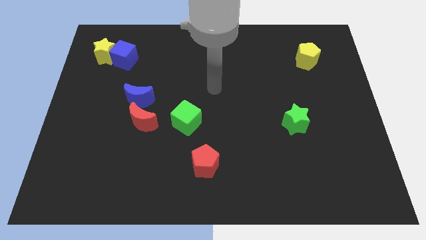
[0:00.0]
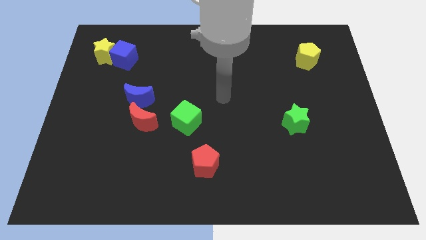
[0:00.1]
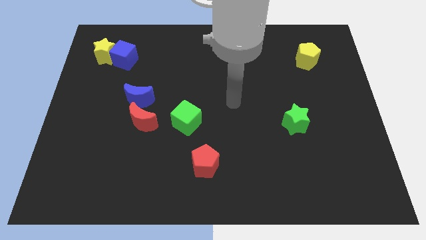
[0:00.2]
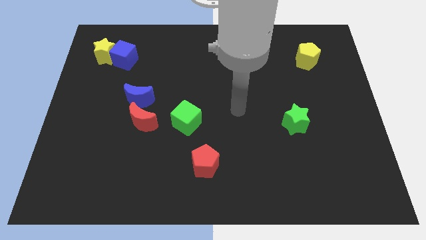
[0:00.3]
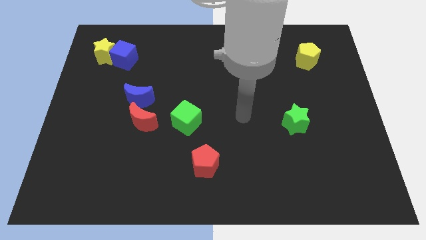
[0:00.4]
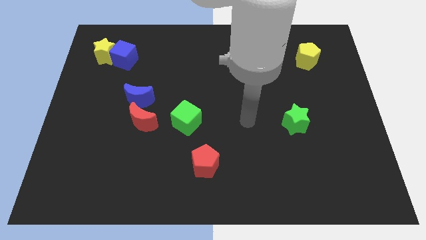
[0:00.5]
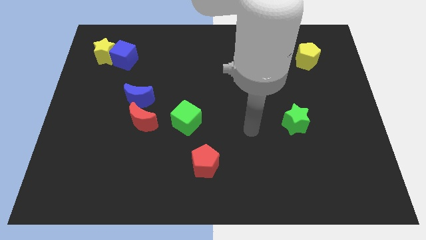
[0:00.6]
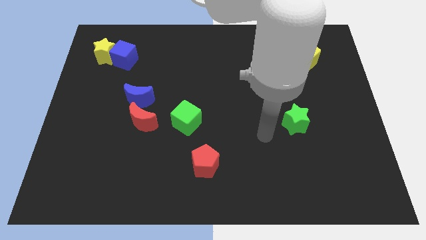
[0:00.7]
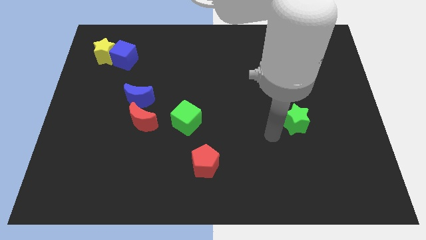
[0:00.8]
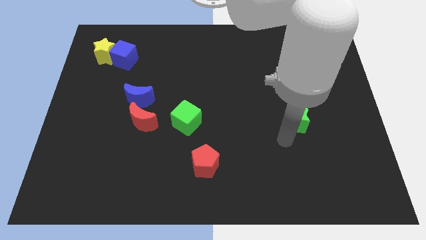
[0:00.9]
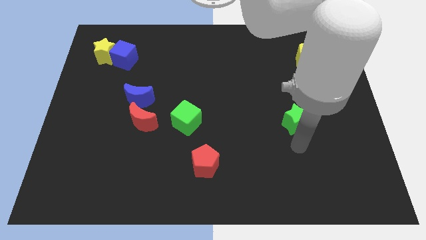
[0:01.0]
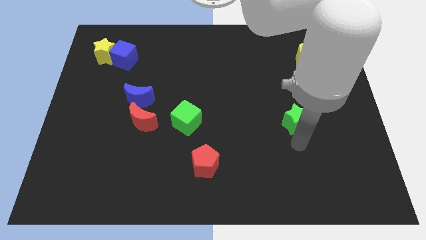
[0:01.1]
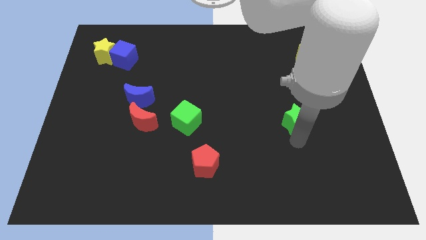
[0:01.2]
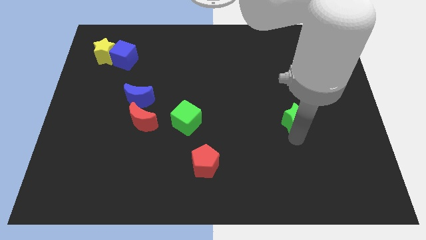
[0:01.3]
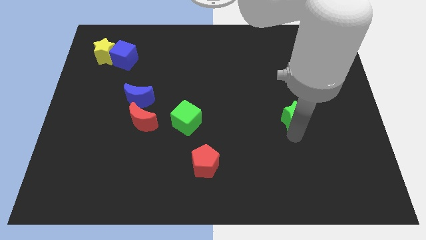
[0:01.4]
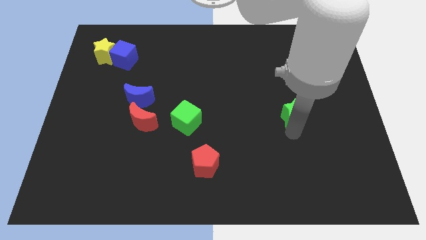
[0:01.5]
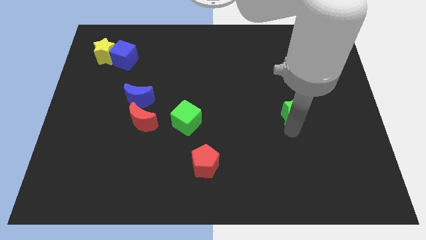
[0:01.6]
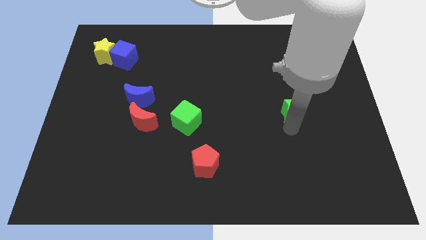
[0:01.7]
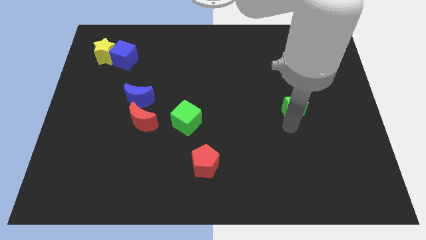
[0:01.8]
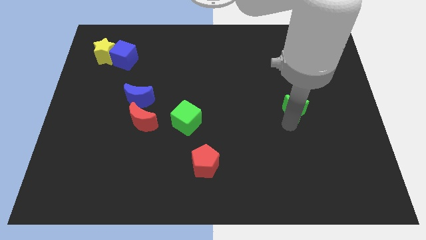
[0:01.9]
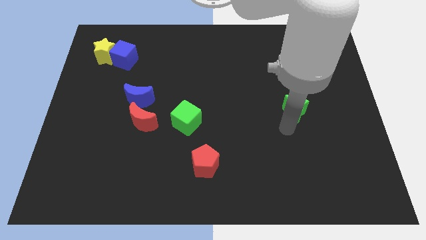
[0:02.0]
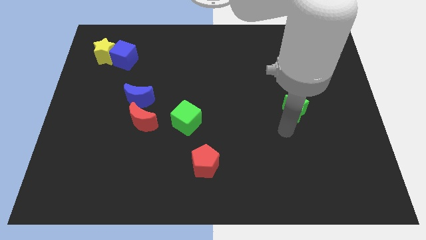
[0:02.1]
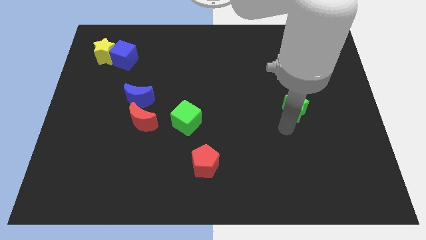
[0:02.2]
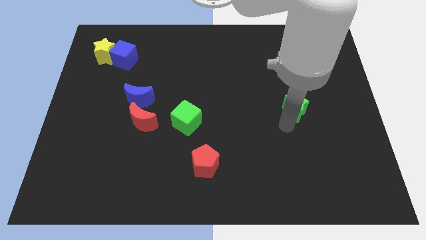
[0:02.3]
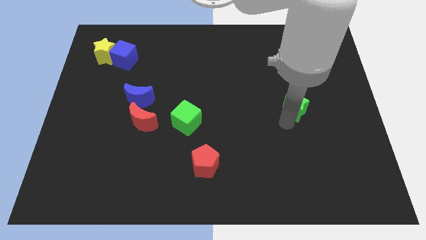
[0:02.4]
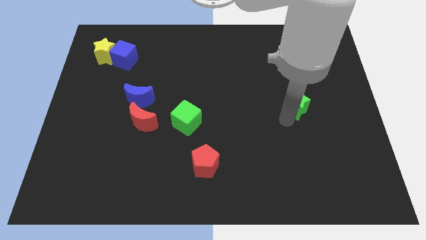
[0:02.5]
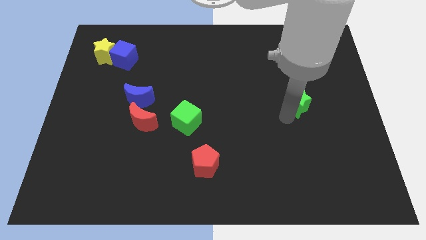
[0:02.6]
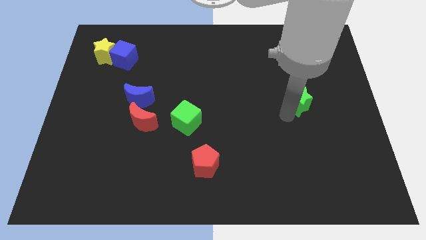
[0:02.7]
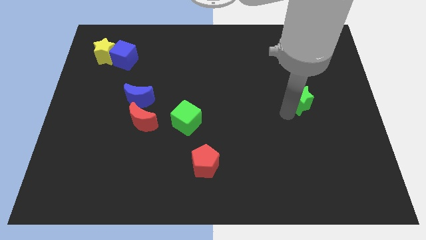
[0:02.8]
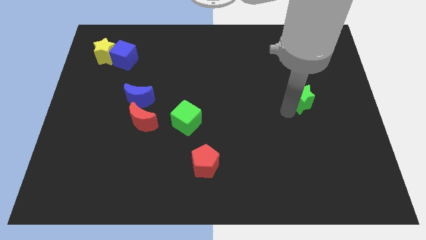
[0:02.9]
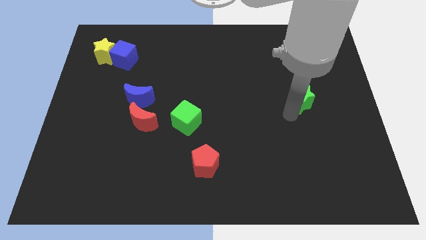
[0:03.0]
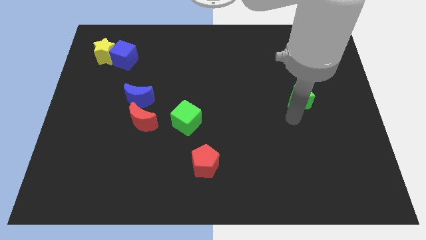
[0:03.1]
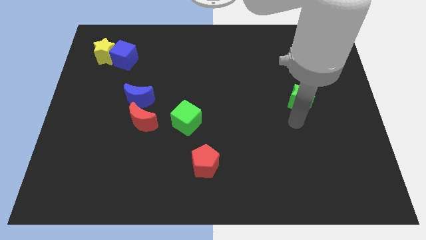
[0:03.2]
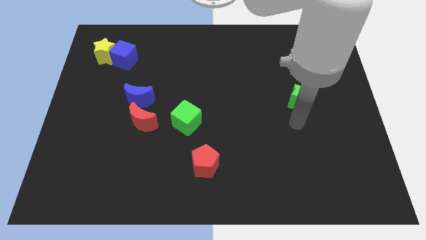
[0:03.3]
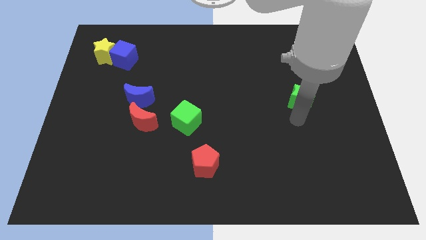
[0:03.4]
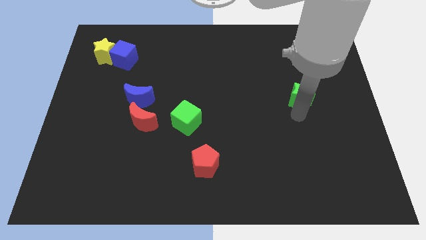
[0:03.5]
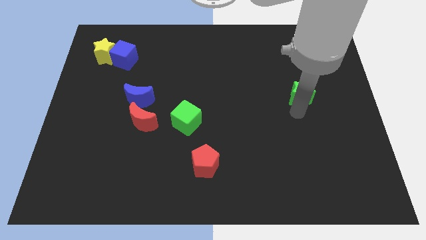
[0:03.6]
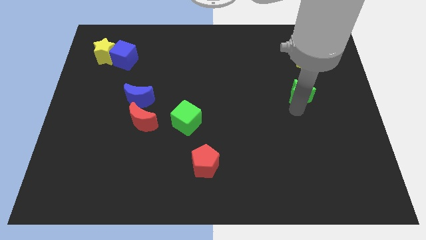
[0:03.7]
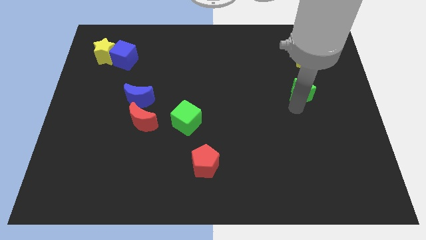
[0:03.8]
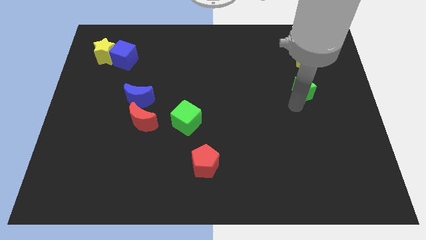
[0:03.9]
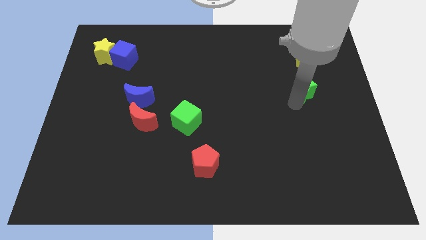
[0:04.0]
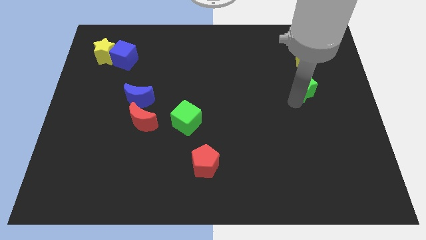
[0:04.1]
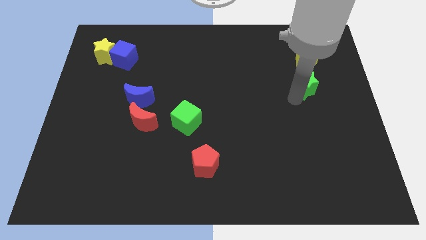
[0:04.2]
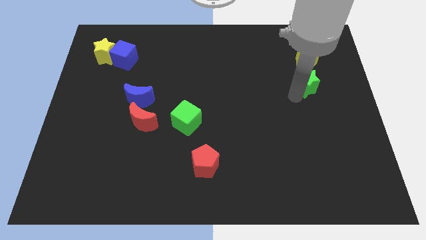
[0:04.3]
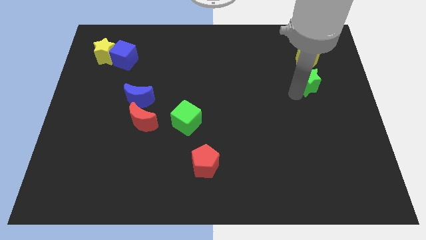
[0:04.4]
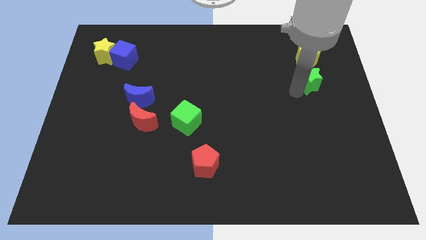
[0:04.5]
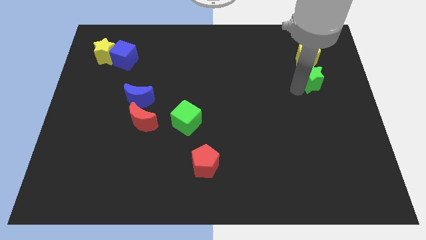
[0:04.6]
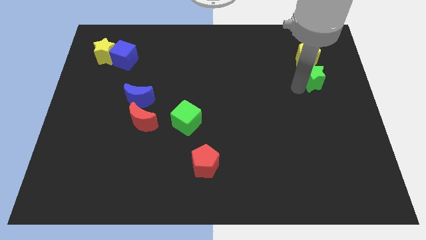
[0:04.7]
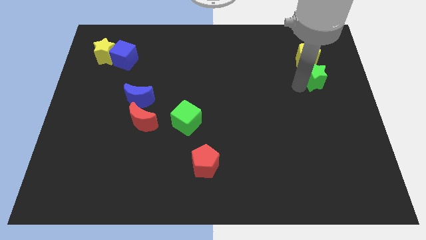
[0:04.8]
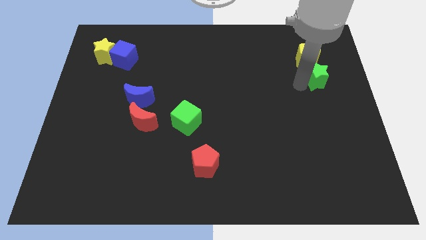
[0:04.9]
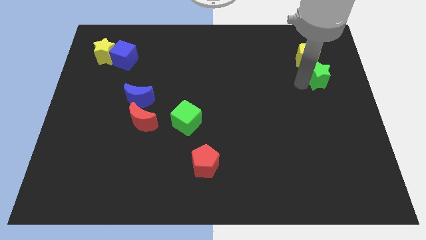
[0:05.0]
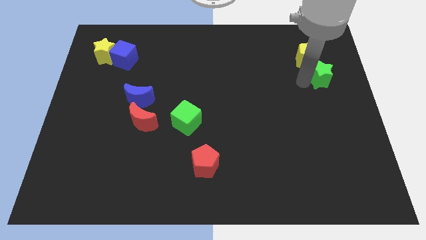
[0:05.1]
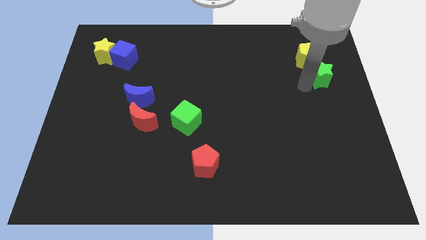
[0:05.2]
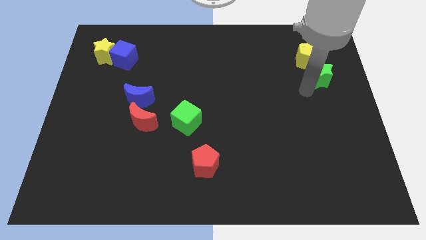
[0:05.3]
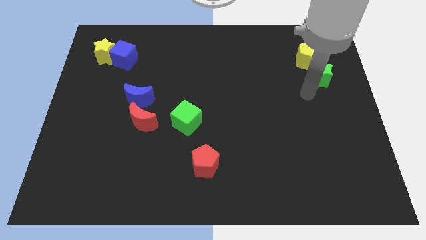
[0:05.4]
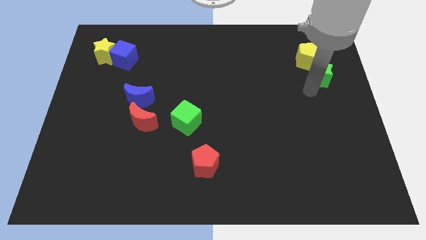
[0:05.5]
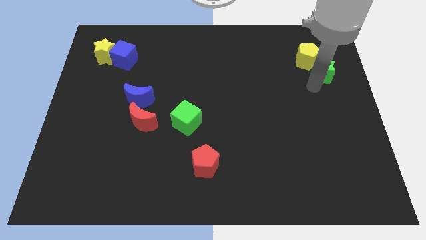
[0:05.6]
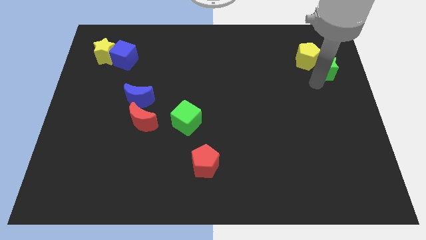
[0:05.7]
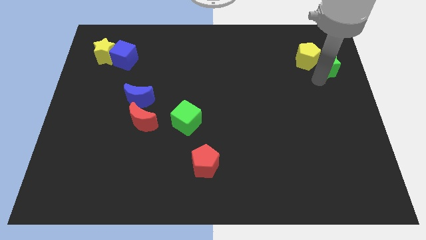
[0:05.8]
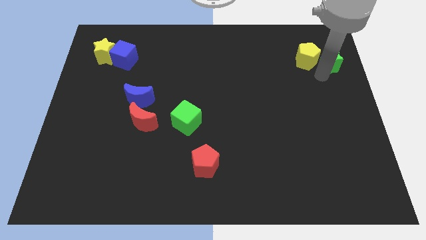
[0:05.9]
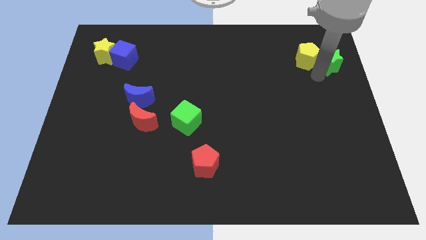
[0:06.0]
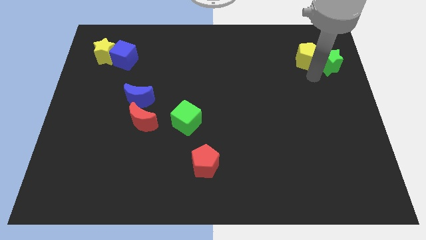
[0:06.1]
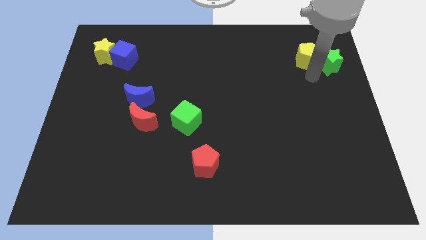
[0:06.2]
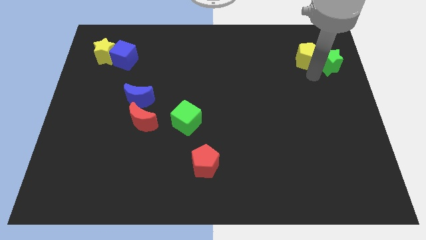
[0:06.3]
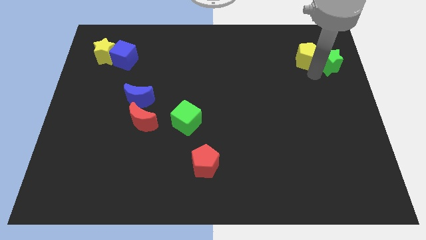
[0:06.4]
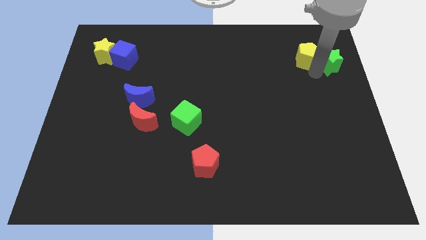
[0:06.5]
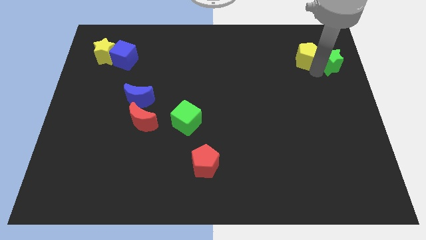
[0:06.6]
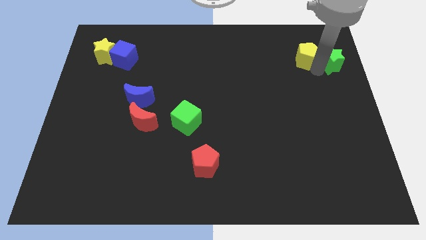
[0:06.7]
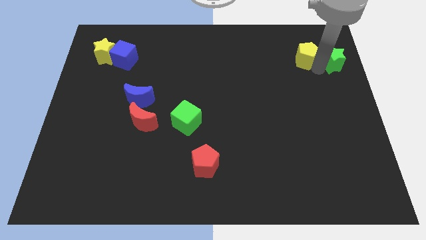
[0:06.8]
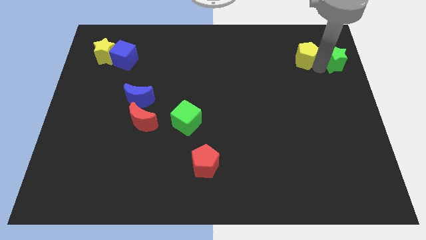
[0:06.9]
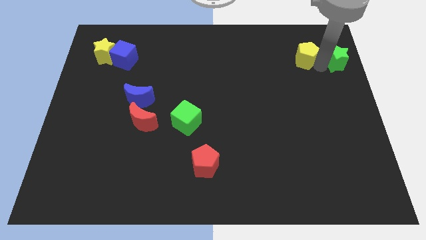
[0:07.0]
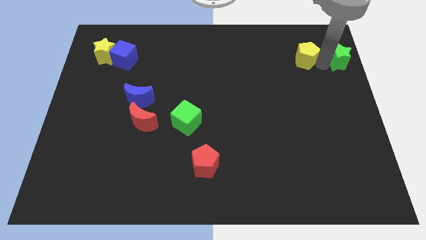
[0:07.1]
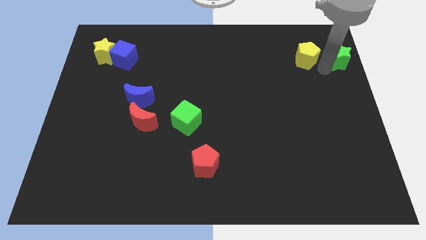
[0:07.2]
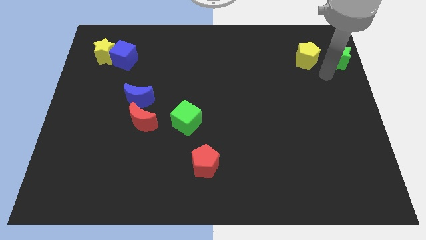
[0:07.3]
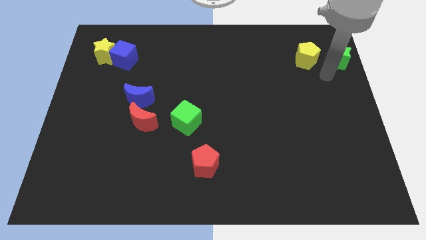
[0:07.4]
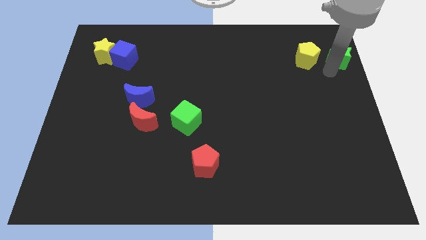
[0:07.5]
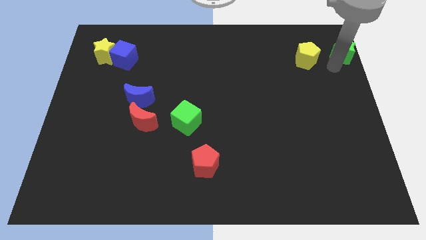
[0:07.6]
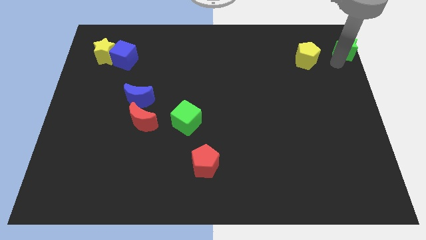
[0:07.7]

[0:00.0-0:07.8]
push the green star to the top right of the board
